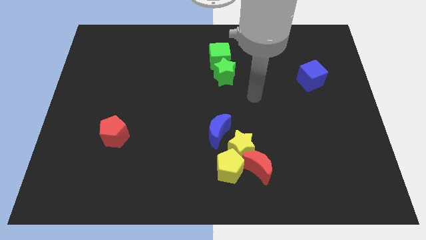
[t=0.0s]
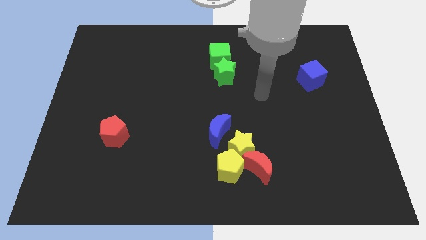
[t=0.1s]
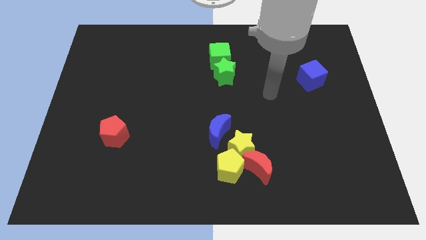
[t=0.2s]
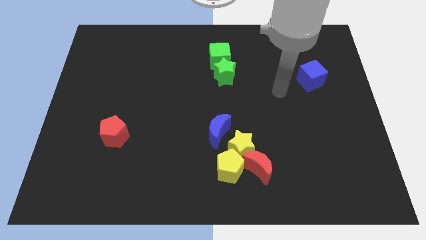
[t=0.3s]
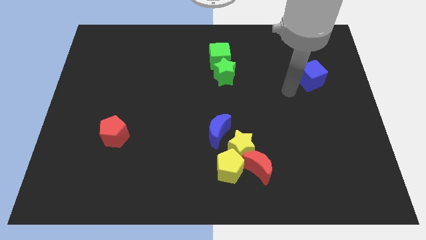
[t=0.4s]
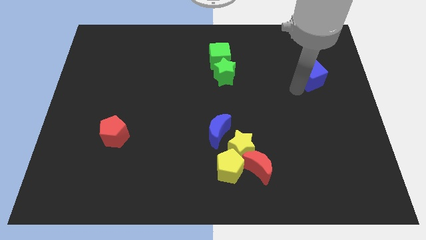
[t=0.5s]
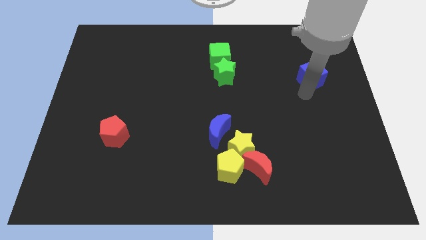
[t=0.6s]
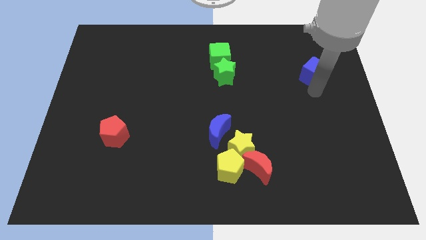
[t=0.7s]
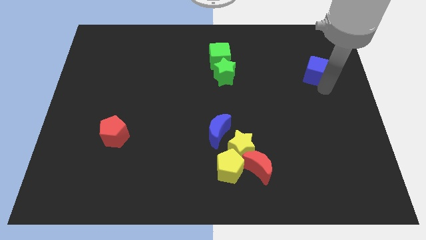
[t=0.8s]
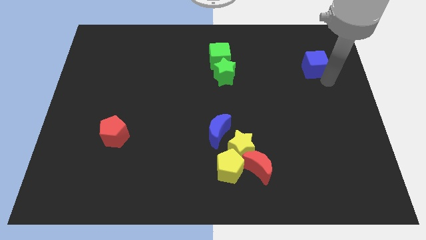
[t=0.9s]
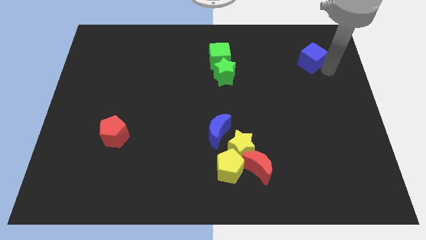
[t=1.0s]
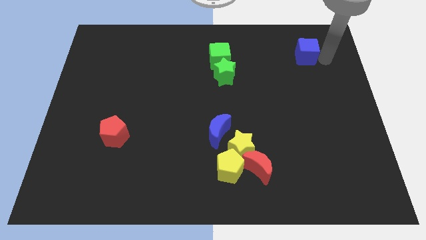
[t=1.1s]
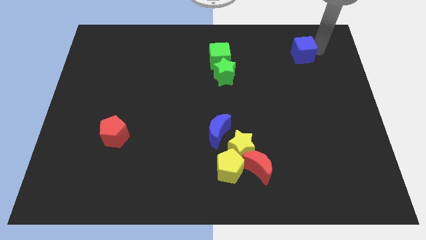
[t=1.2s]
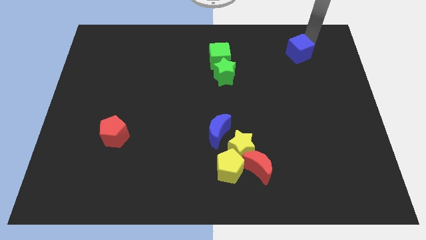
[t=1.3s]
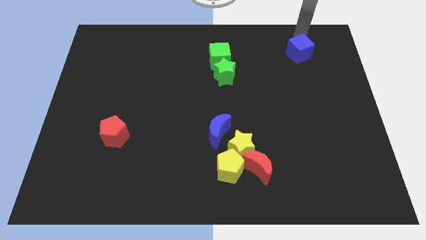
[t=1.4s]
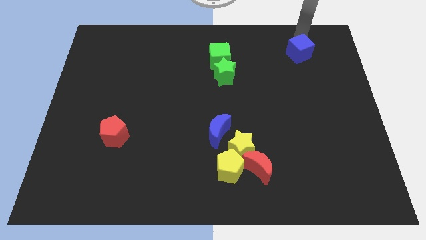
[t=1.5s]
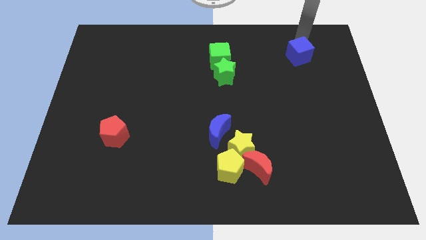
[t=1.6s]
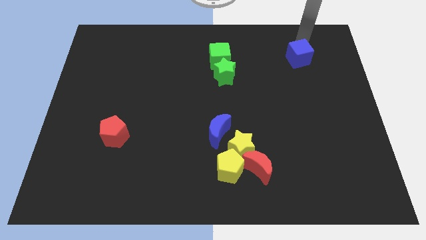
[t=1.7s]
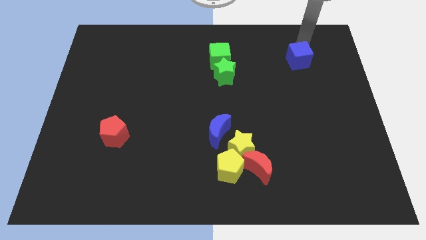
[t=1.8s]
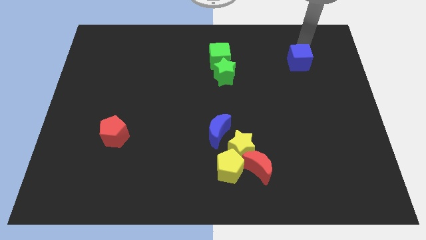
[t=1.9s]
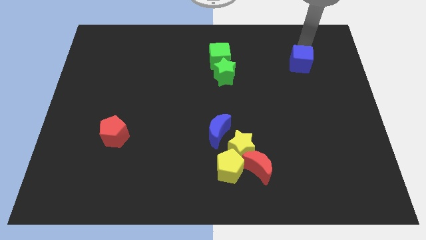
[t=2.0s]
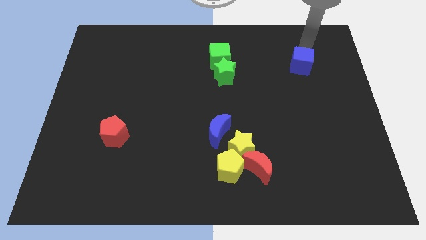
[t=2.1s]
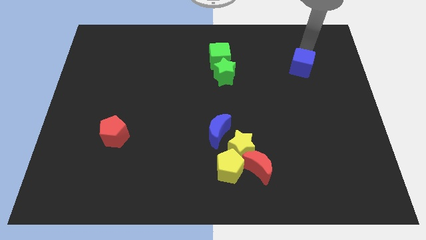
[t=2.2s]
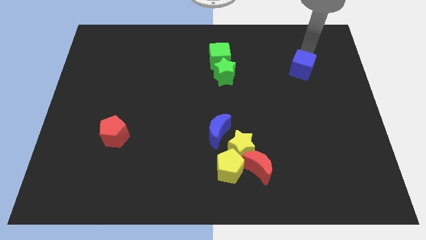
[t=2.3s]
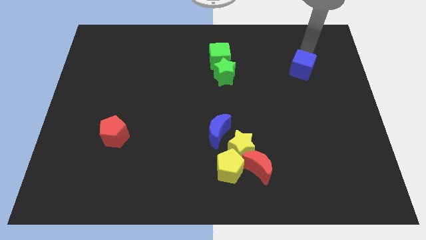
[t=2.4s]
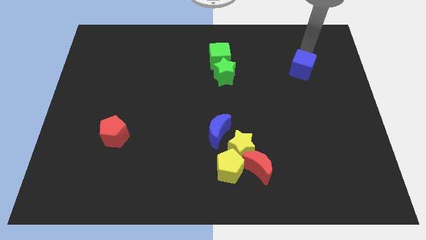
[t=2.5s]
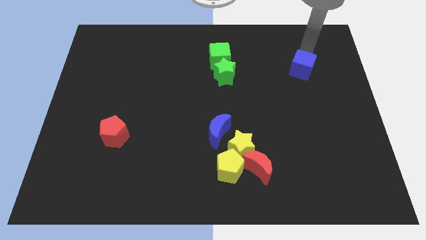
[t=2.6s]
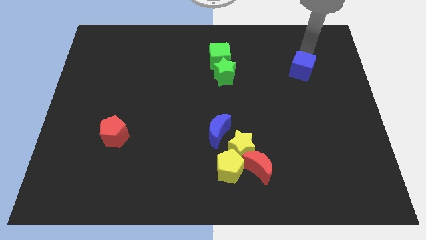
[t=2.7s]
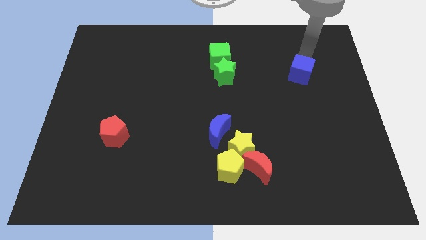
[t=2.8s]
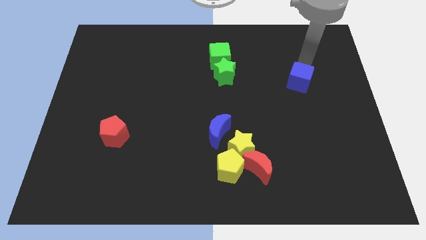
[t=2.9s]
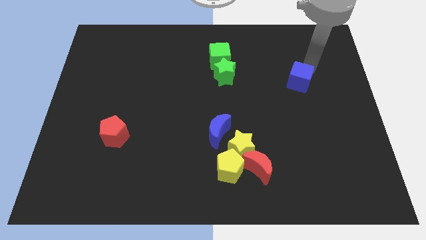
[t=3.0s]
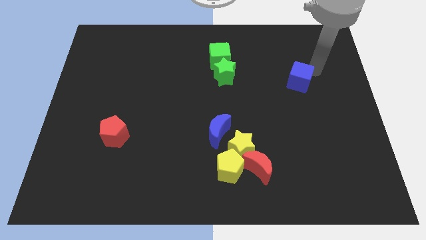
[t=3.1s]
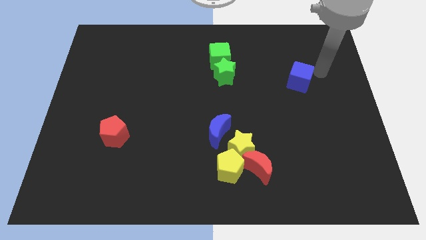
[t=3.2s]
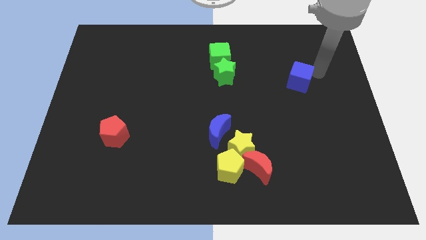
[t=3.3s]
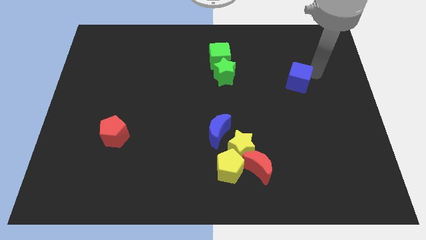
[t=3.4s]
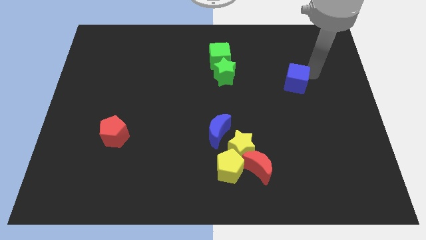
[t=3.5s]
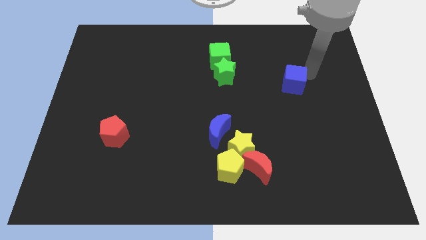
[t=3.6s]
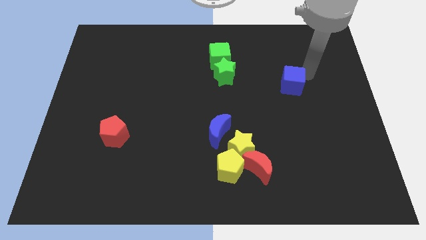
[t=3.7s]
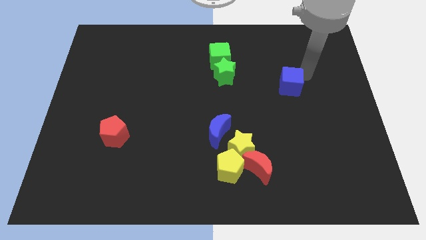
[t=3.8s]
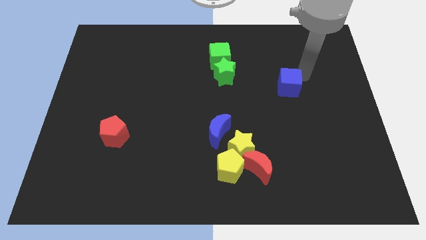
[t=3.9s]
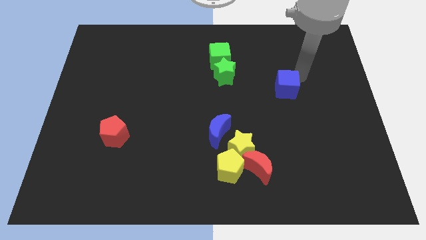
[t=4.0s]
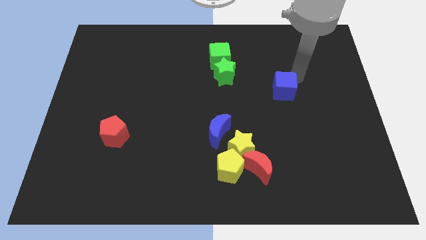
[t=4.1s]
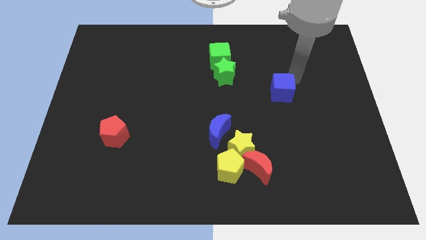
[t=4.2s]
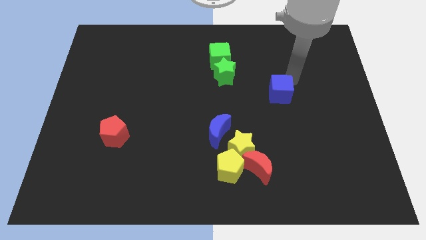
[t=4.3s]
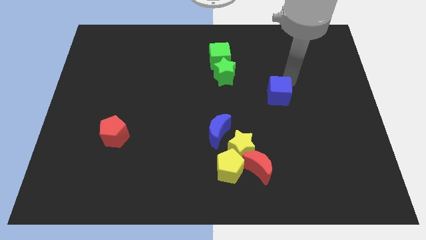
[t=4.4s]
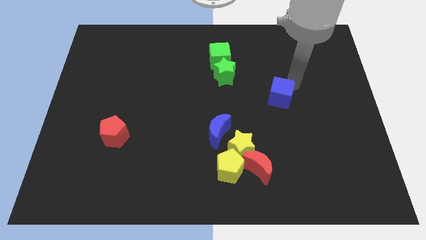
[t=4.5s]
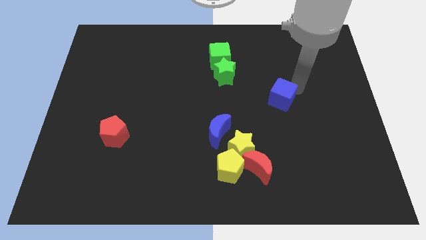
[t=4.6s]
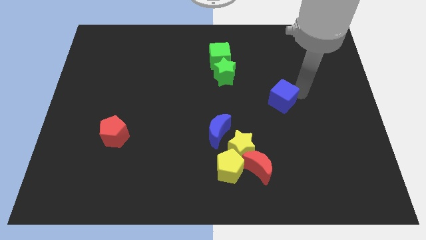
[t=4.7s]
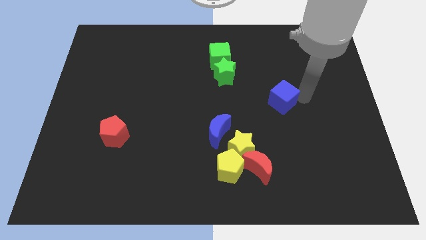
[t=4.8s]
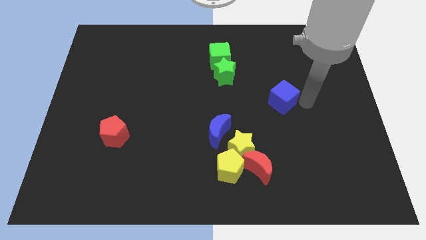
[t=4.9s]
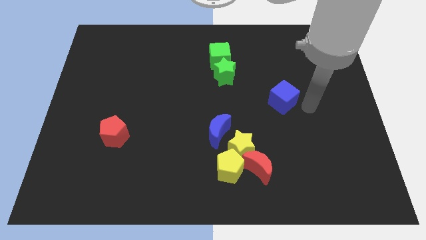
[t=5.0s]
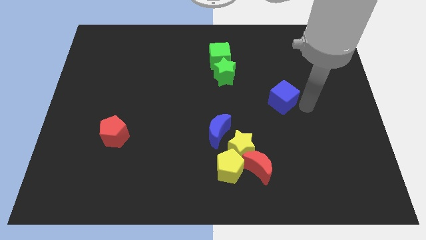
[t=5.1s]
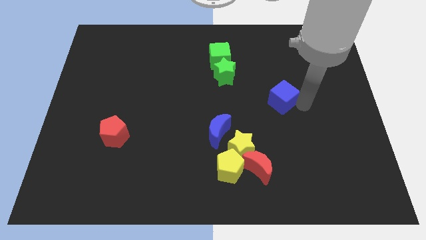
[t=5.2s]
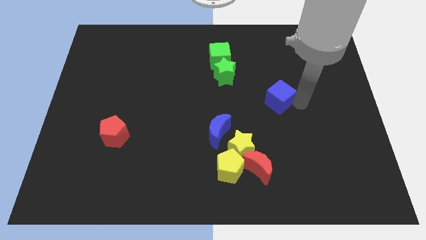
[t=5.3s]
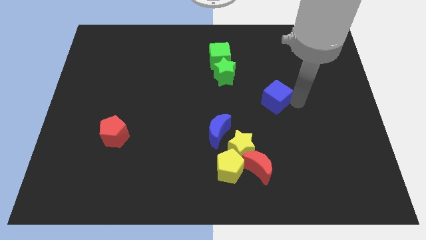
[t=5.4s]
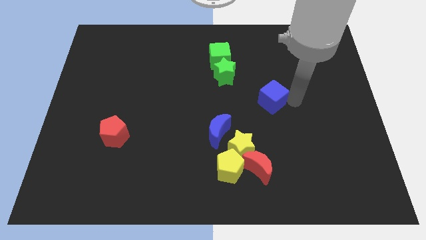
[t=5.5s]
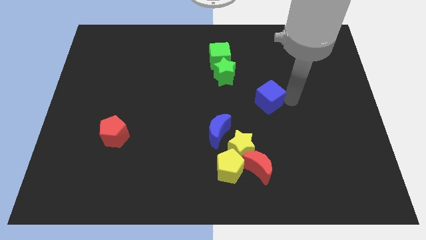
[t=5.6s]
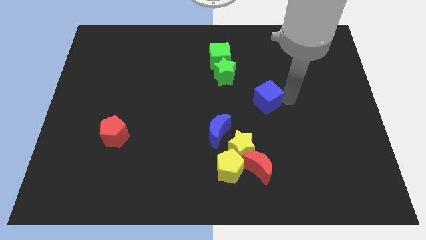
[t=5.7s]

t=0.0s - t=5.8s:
move the blue cube to the center

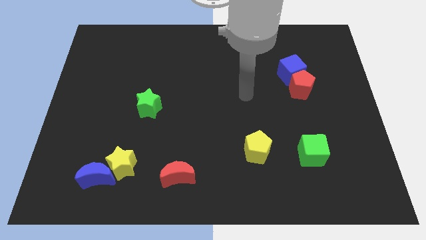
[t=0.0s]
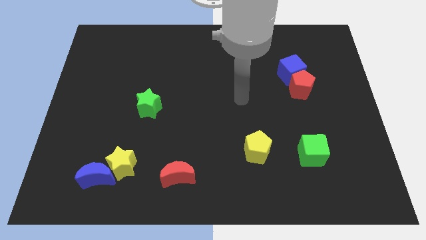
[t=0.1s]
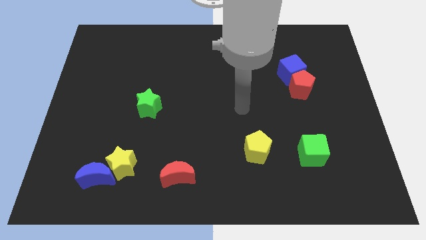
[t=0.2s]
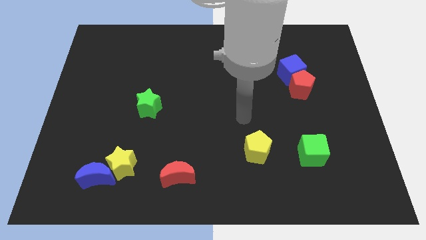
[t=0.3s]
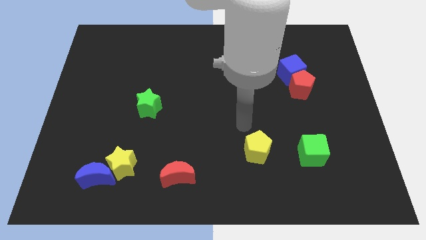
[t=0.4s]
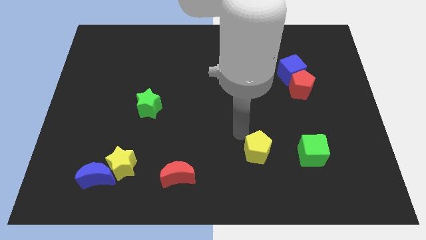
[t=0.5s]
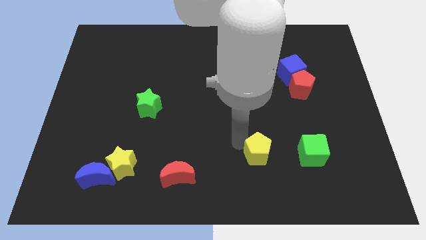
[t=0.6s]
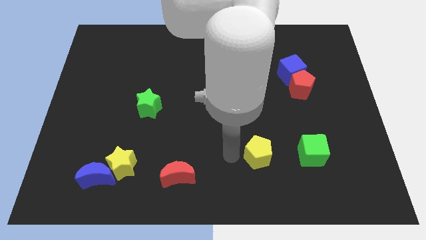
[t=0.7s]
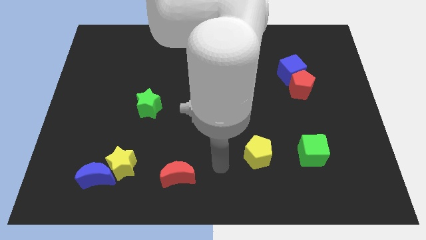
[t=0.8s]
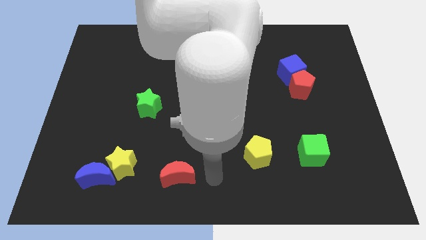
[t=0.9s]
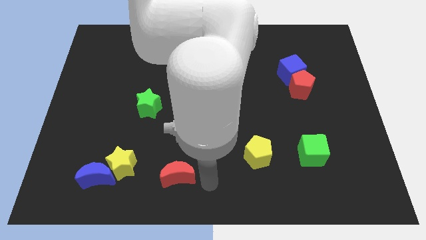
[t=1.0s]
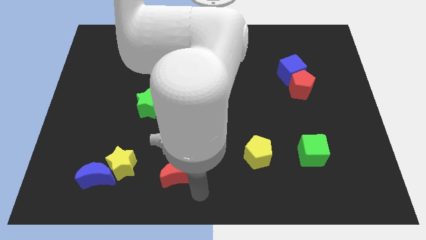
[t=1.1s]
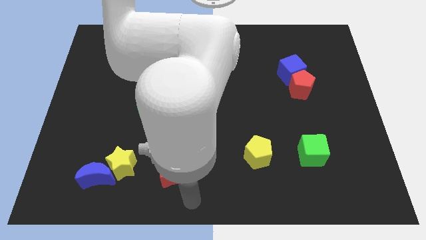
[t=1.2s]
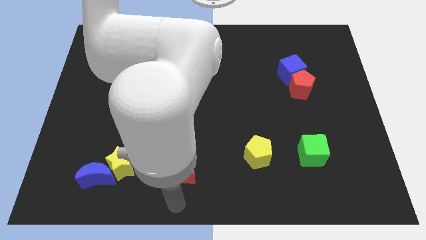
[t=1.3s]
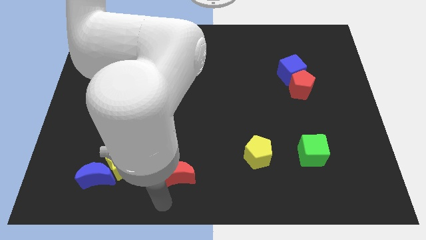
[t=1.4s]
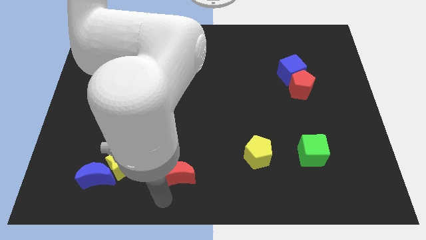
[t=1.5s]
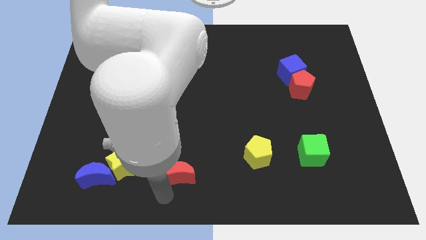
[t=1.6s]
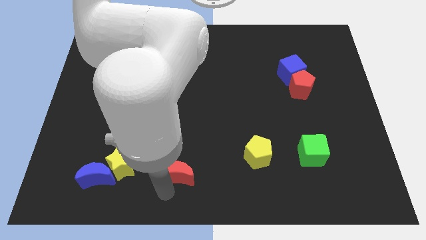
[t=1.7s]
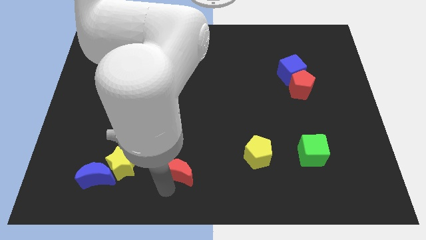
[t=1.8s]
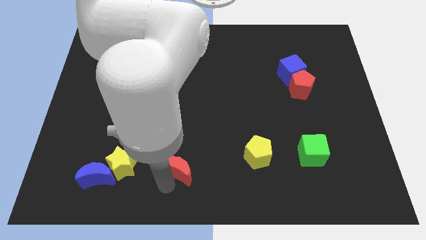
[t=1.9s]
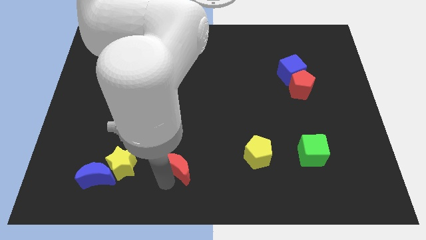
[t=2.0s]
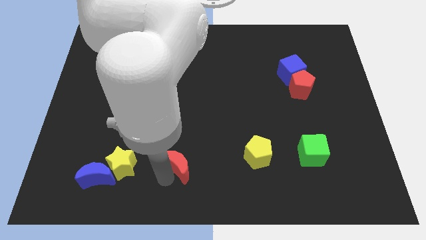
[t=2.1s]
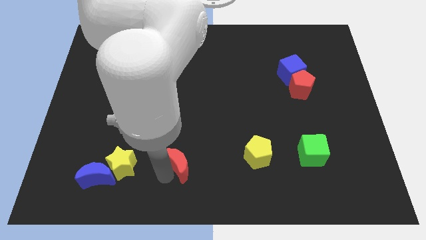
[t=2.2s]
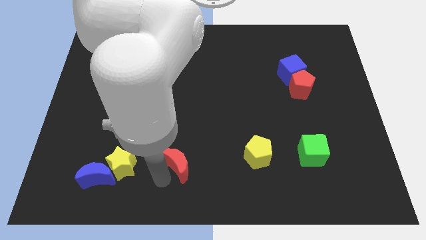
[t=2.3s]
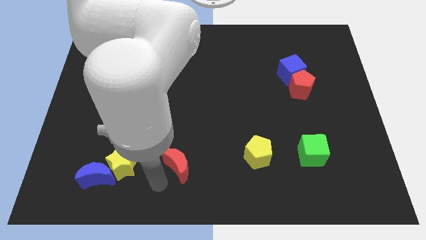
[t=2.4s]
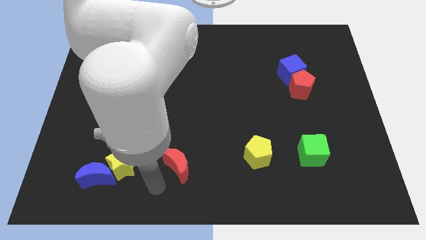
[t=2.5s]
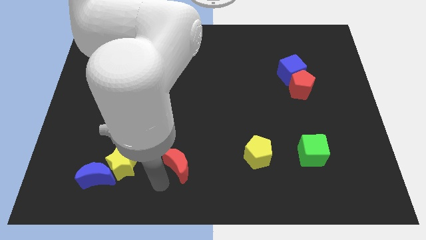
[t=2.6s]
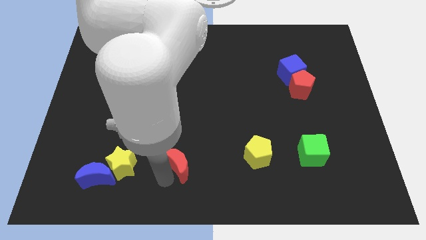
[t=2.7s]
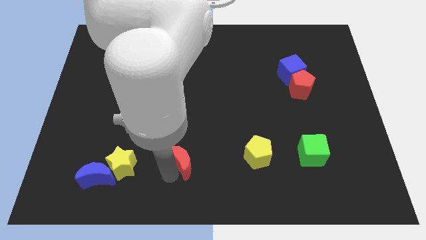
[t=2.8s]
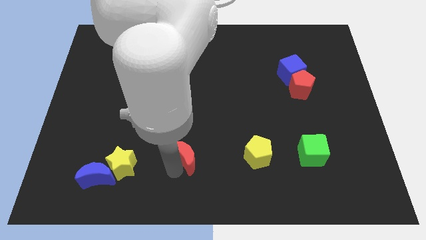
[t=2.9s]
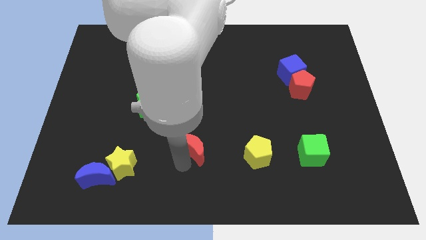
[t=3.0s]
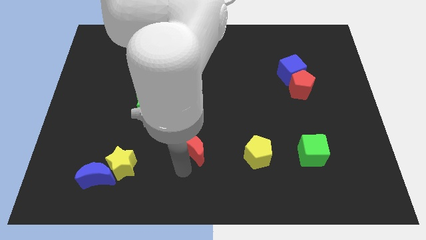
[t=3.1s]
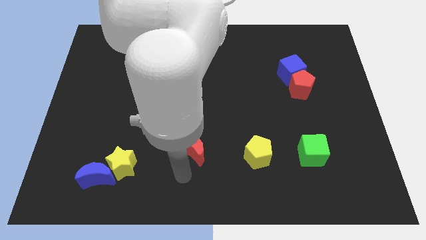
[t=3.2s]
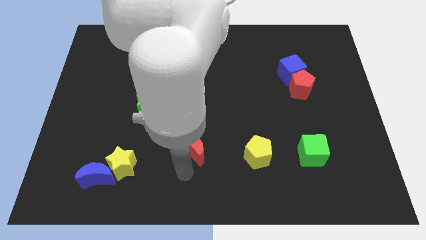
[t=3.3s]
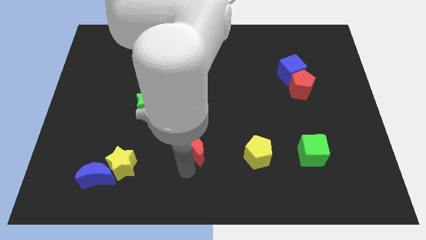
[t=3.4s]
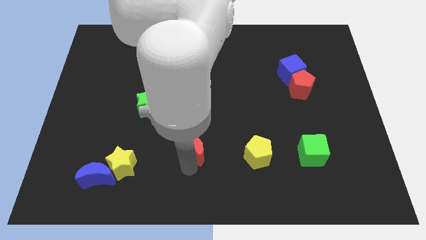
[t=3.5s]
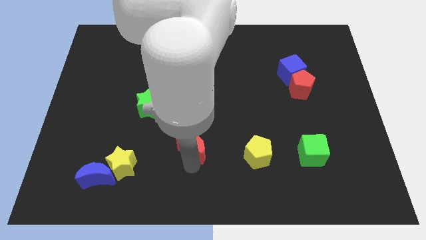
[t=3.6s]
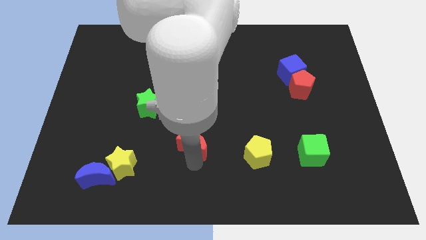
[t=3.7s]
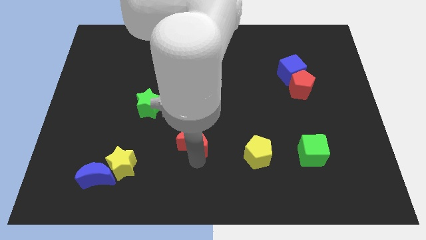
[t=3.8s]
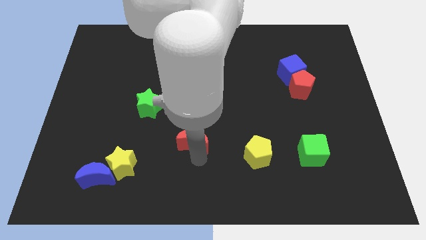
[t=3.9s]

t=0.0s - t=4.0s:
move the red moon to the middle of the board
